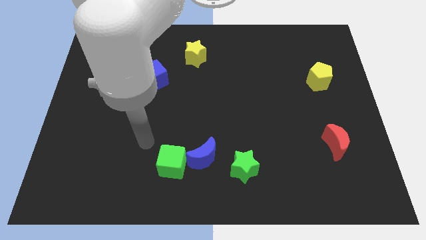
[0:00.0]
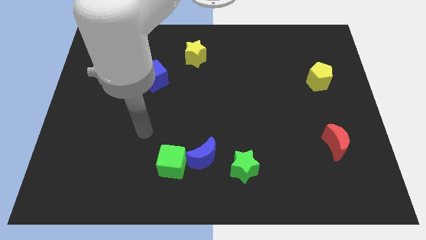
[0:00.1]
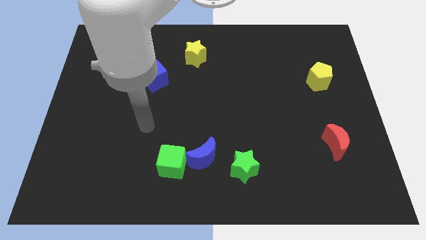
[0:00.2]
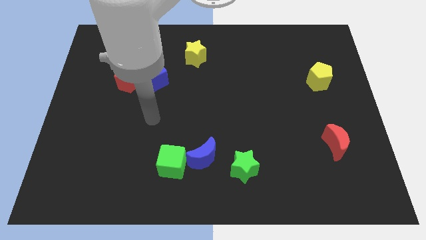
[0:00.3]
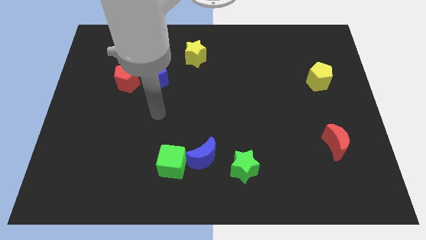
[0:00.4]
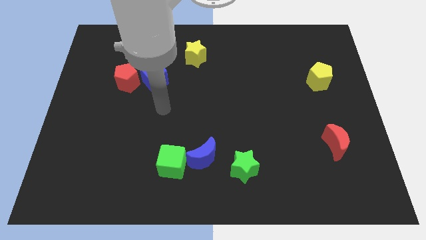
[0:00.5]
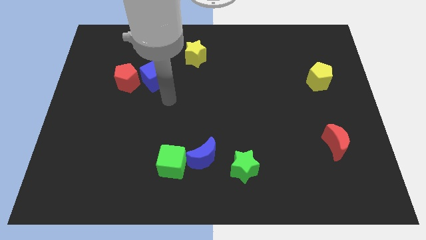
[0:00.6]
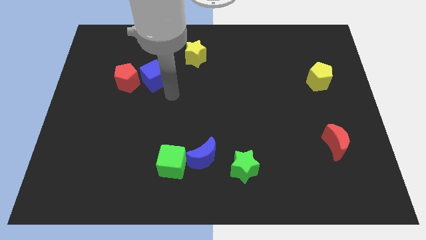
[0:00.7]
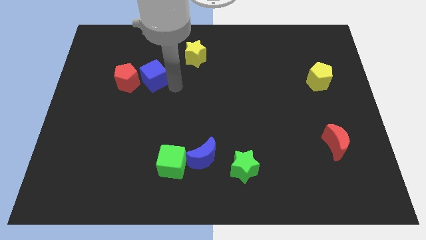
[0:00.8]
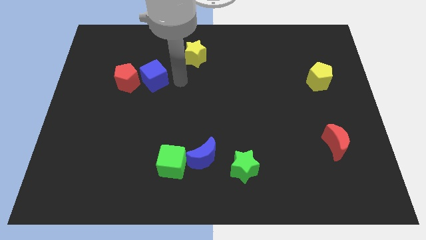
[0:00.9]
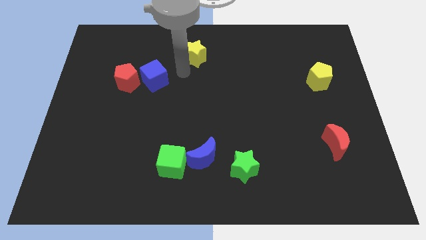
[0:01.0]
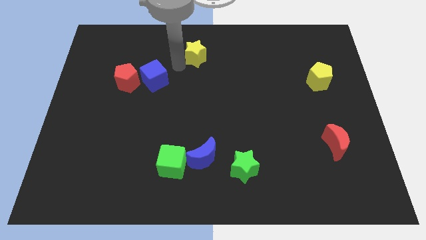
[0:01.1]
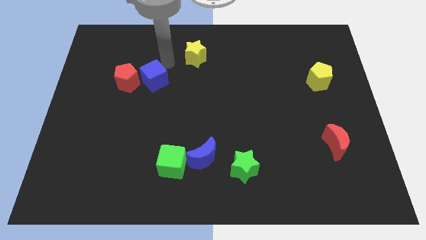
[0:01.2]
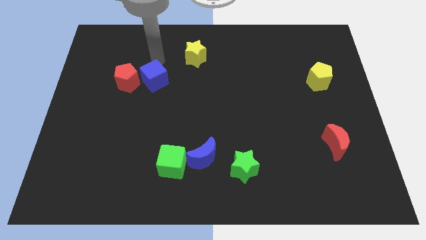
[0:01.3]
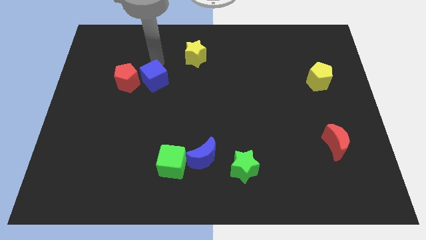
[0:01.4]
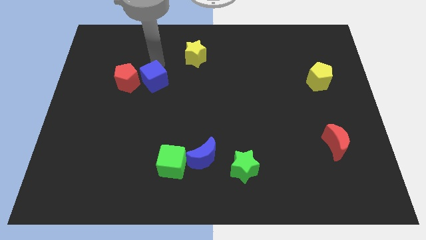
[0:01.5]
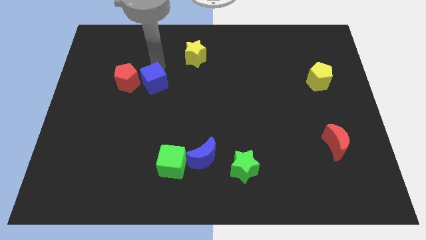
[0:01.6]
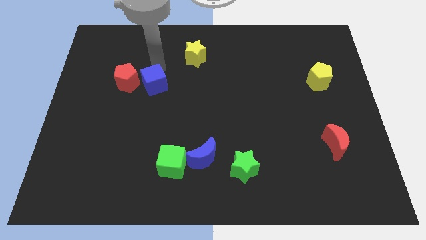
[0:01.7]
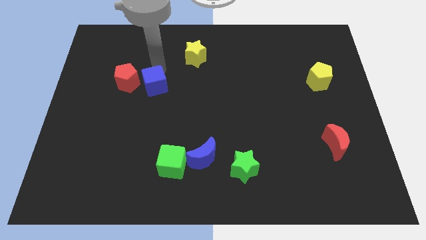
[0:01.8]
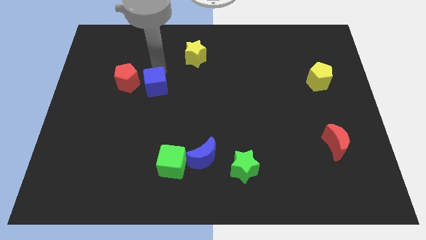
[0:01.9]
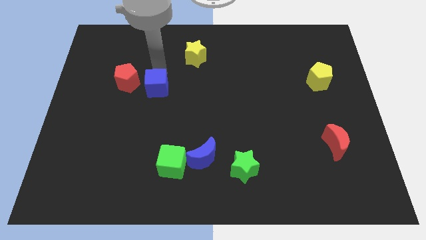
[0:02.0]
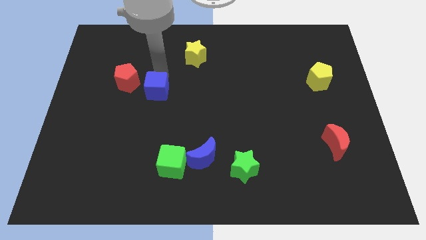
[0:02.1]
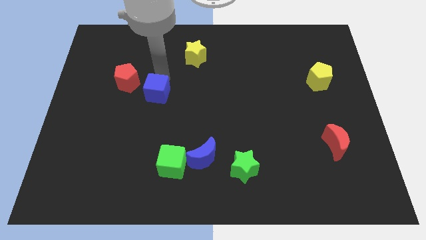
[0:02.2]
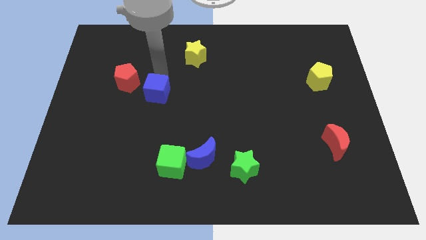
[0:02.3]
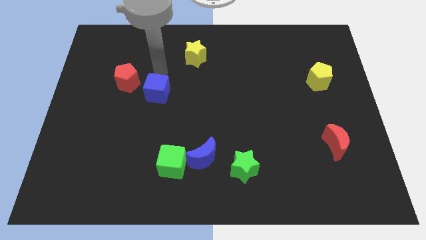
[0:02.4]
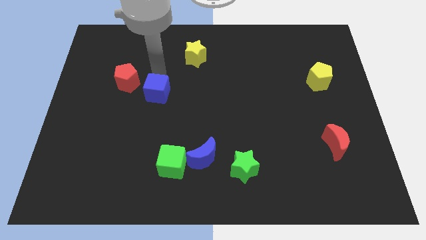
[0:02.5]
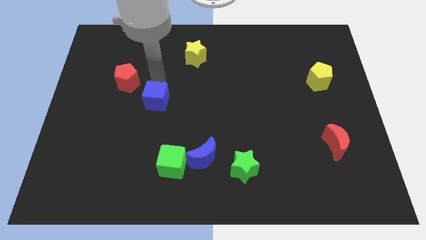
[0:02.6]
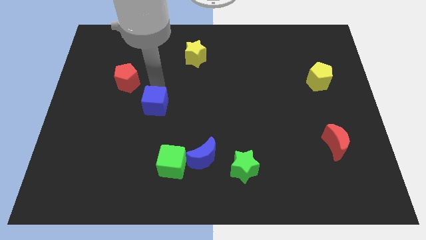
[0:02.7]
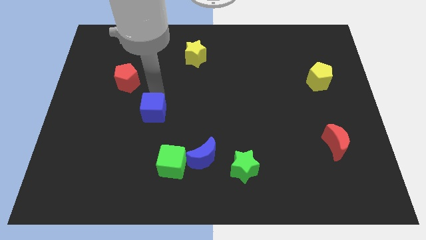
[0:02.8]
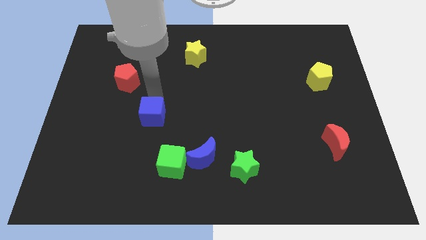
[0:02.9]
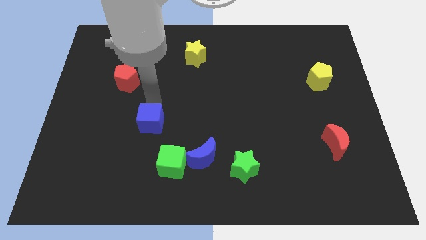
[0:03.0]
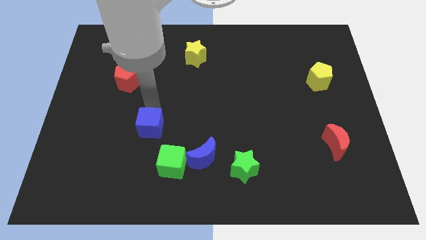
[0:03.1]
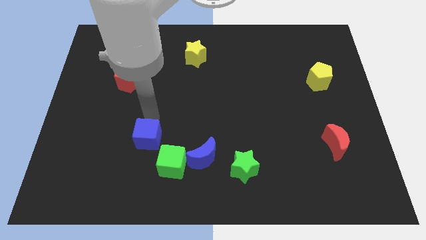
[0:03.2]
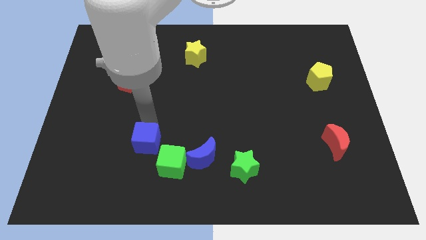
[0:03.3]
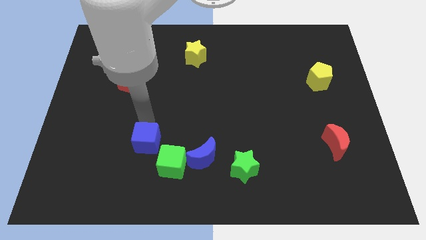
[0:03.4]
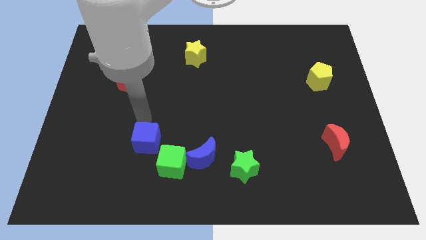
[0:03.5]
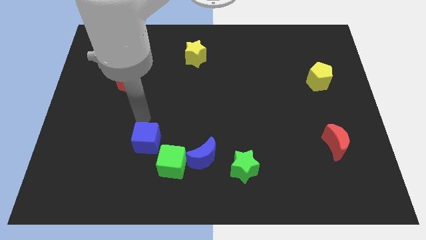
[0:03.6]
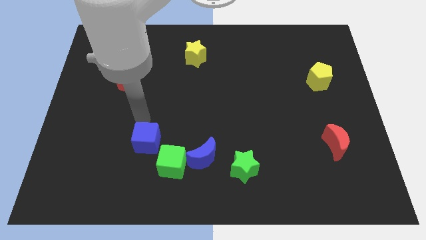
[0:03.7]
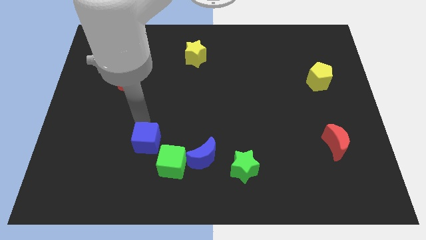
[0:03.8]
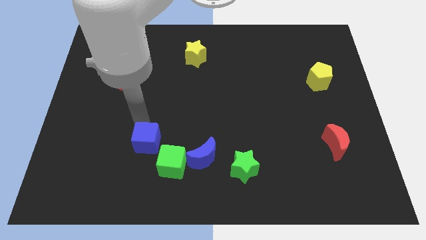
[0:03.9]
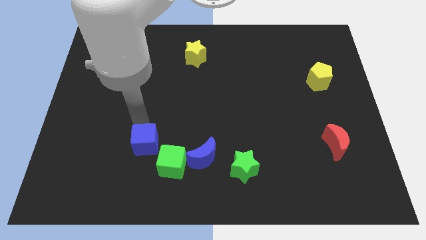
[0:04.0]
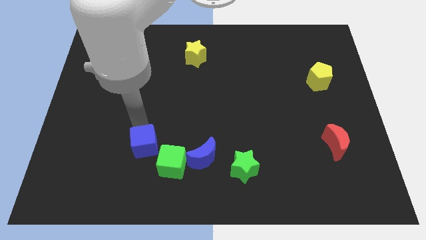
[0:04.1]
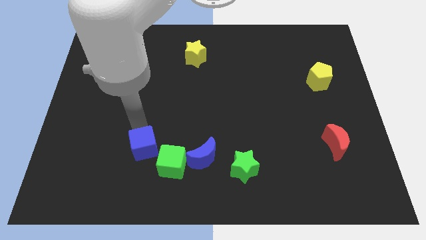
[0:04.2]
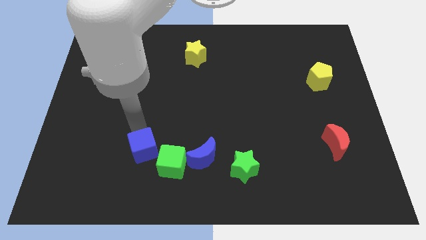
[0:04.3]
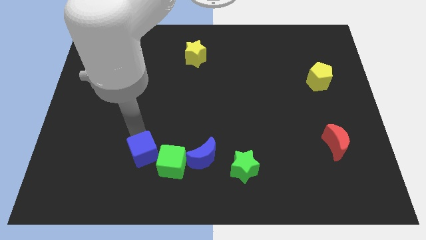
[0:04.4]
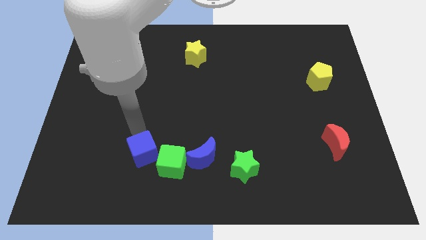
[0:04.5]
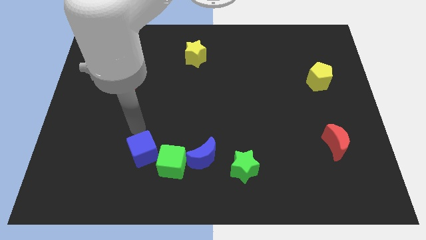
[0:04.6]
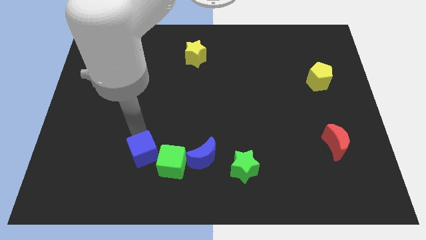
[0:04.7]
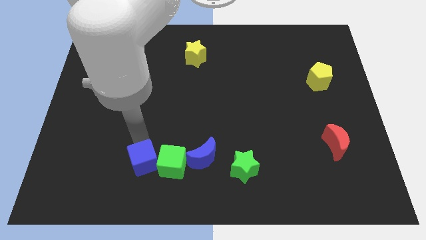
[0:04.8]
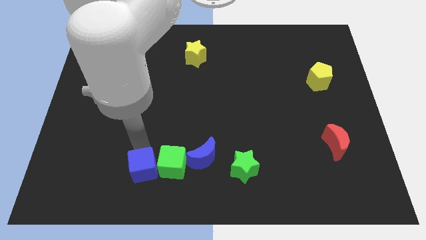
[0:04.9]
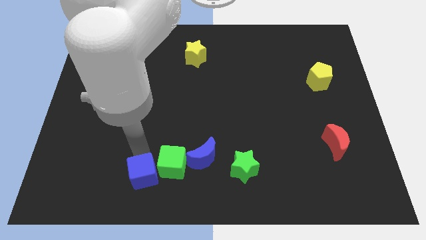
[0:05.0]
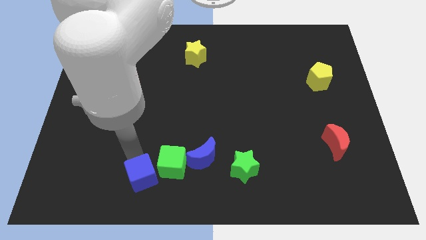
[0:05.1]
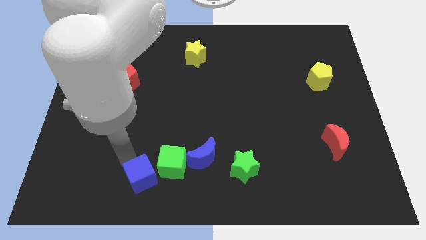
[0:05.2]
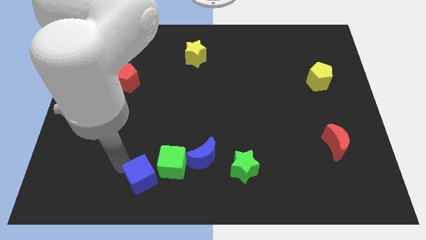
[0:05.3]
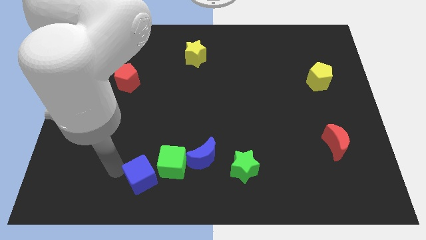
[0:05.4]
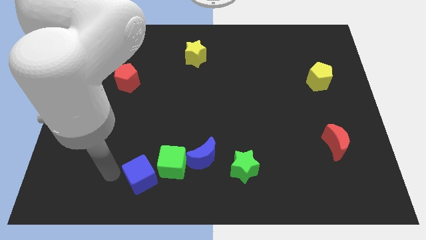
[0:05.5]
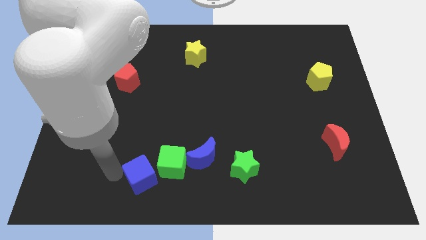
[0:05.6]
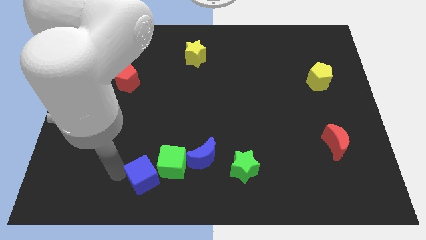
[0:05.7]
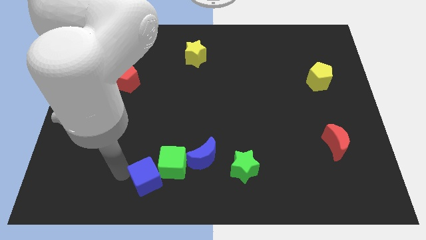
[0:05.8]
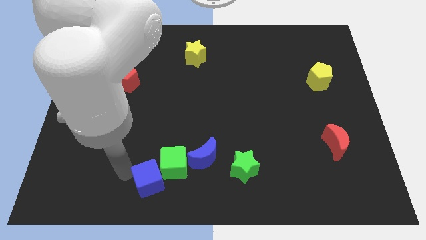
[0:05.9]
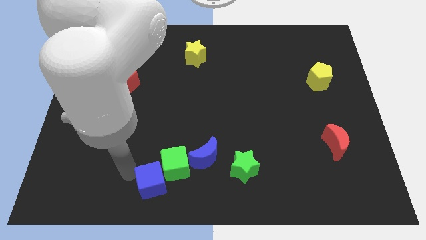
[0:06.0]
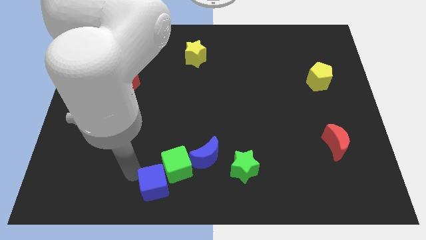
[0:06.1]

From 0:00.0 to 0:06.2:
push the blue cube diagonally down and to the left of the blue moon

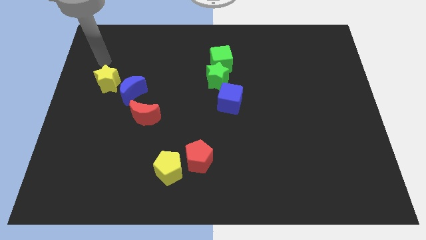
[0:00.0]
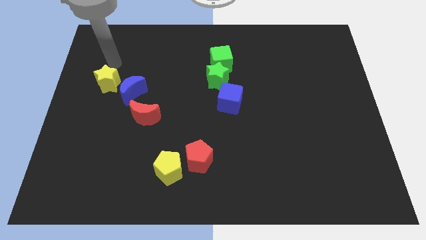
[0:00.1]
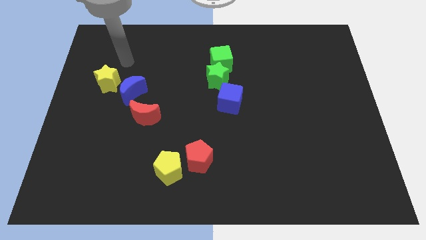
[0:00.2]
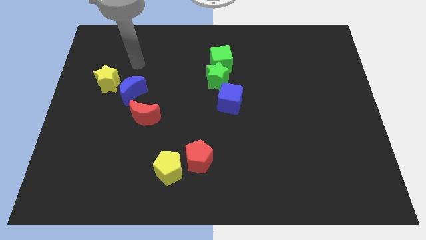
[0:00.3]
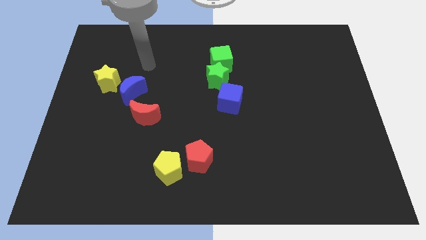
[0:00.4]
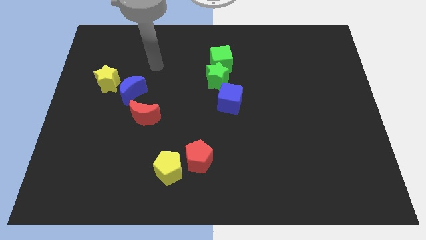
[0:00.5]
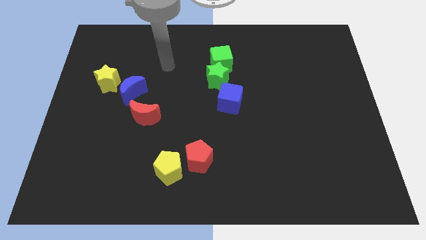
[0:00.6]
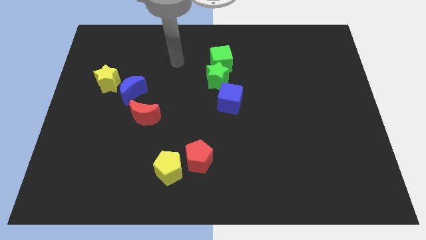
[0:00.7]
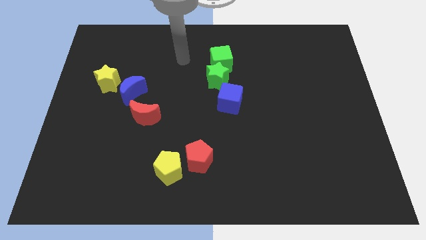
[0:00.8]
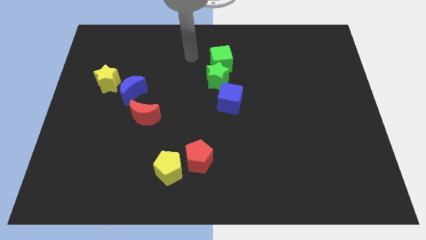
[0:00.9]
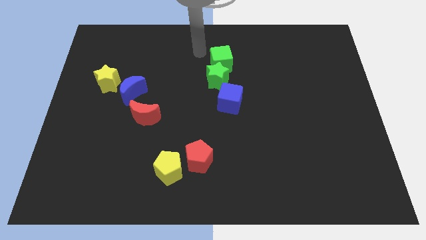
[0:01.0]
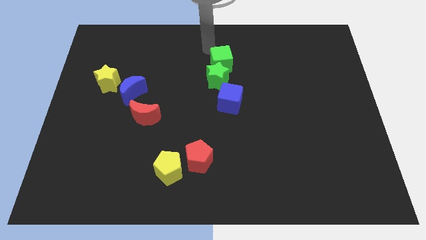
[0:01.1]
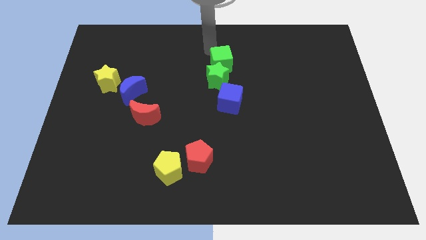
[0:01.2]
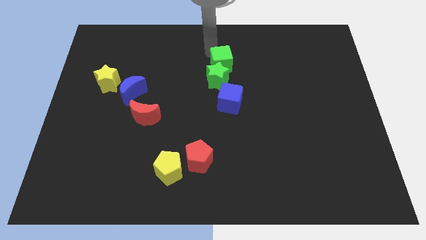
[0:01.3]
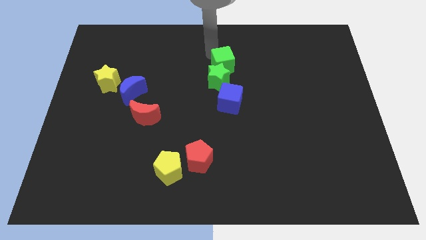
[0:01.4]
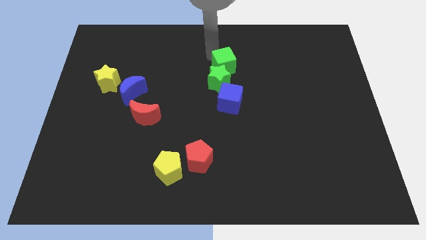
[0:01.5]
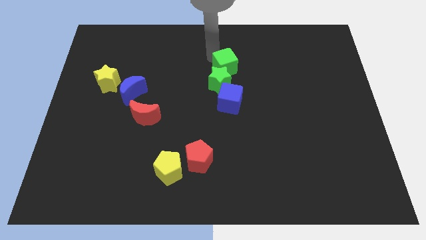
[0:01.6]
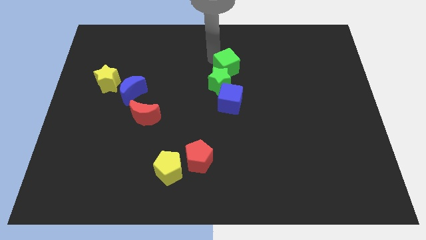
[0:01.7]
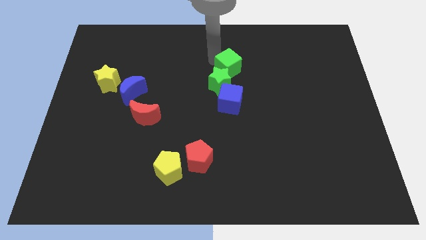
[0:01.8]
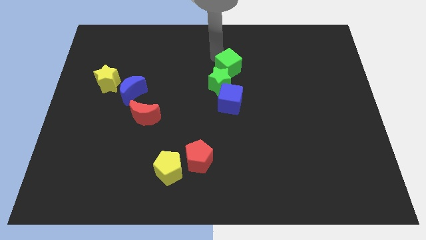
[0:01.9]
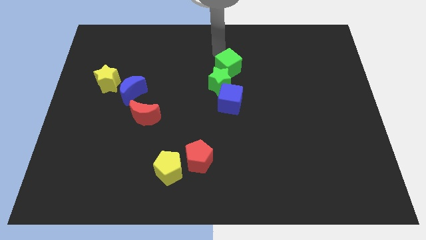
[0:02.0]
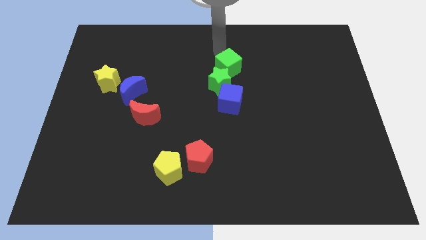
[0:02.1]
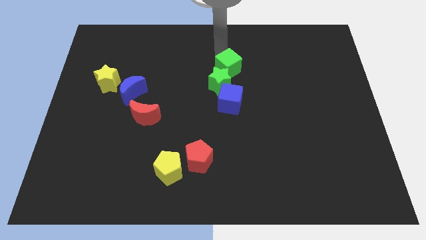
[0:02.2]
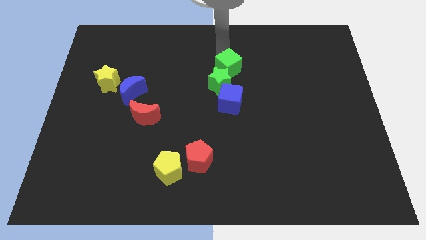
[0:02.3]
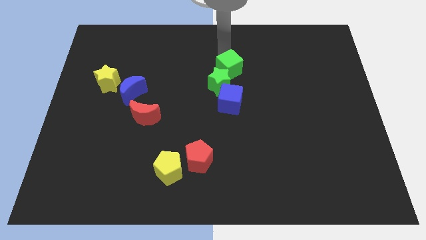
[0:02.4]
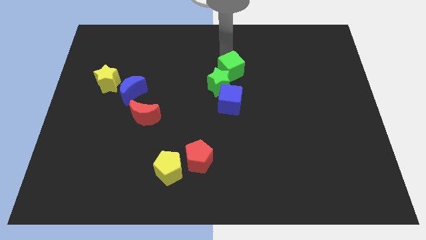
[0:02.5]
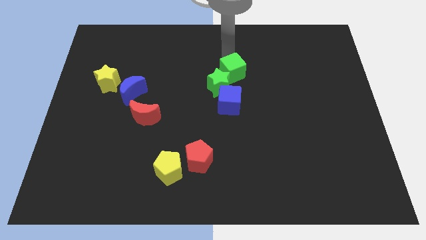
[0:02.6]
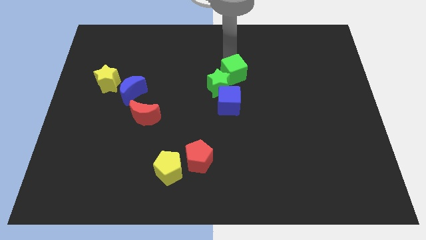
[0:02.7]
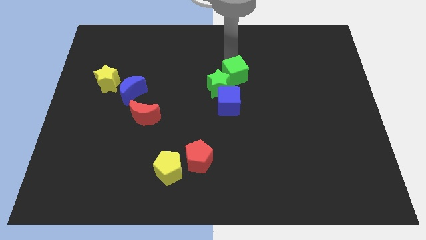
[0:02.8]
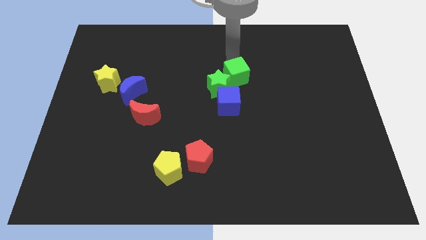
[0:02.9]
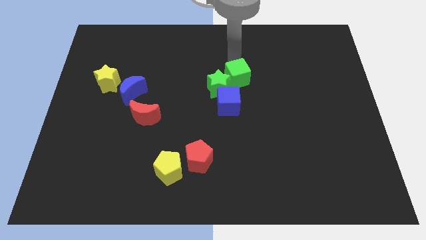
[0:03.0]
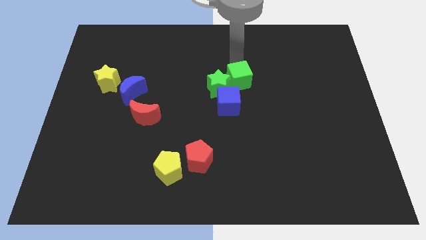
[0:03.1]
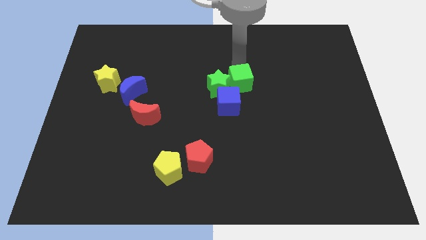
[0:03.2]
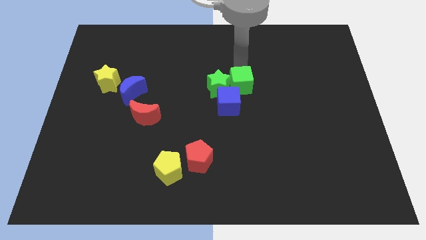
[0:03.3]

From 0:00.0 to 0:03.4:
put the green cube to the bottom right side of the green star
